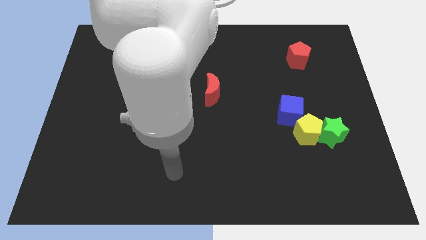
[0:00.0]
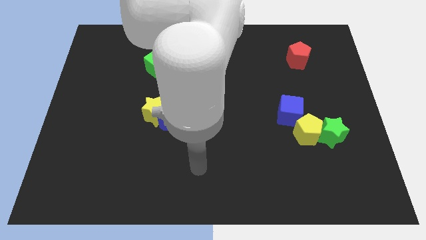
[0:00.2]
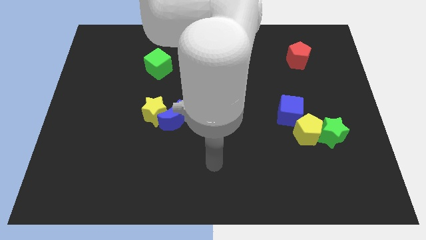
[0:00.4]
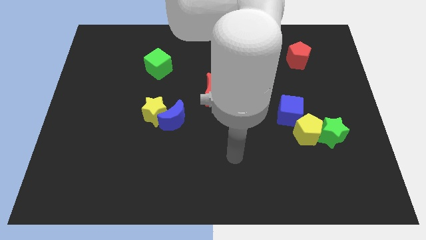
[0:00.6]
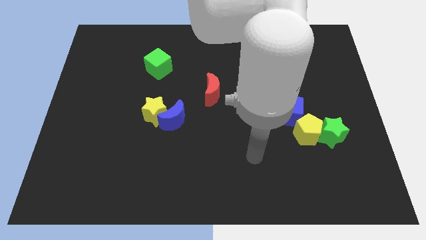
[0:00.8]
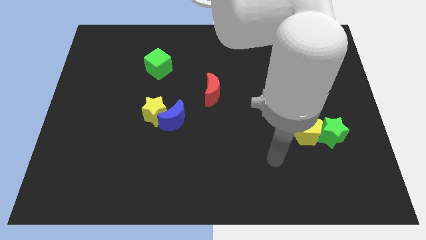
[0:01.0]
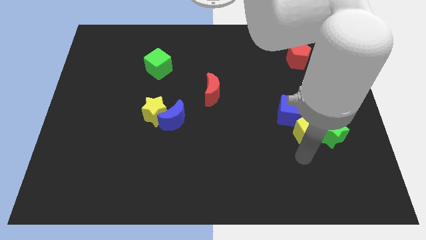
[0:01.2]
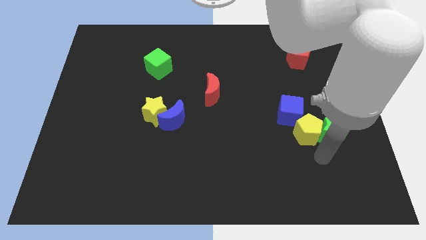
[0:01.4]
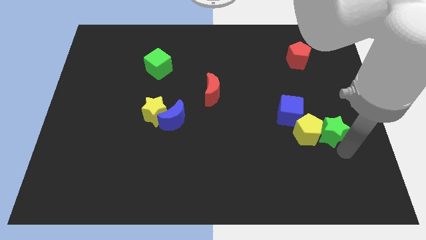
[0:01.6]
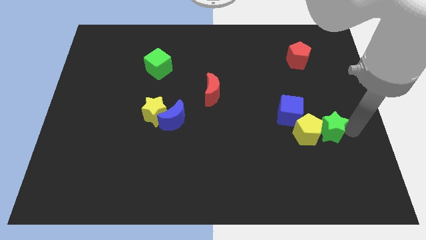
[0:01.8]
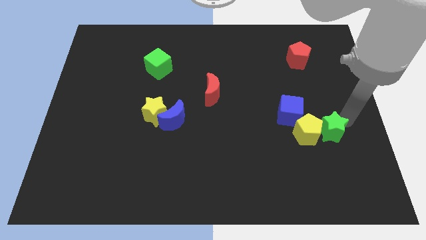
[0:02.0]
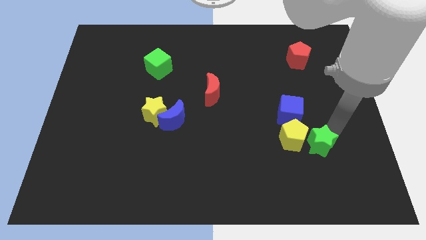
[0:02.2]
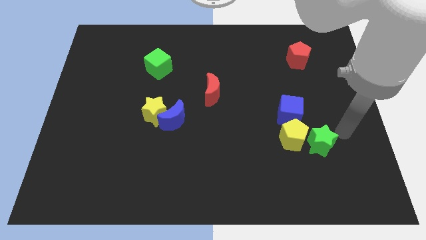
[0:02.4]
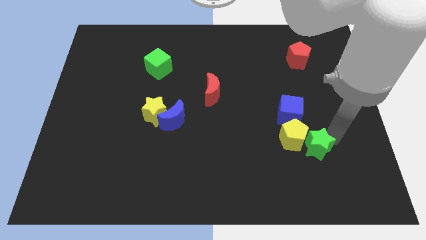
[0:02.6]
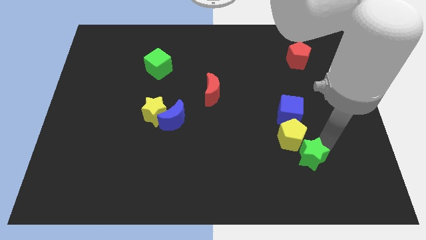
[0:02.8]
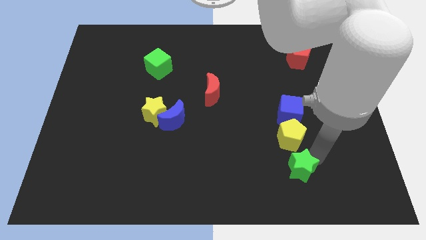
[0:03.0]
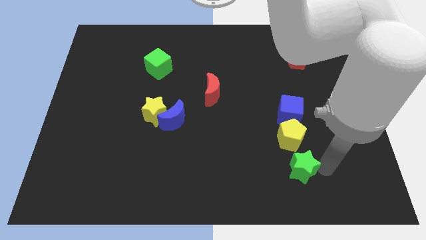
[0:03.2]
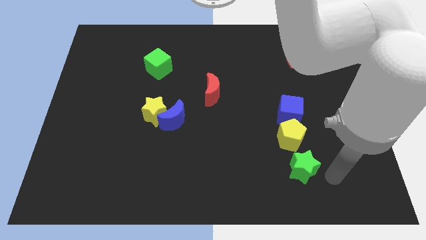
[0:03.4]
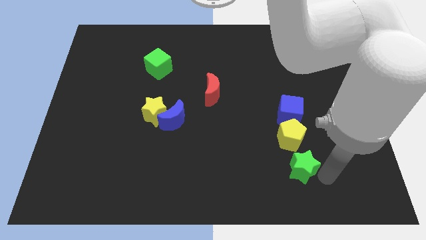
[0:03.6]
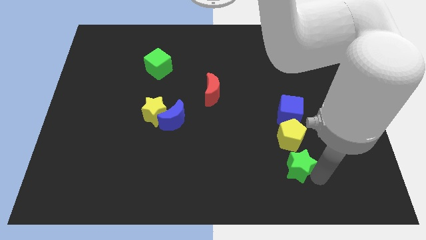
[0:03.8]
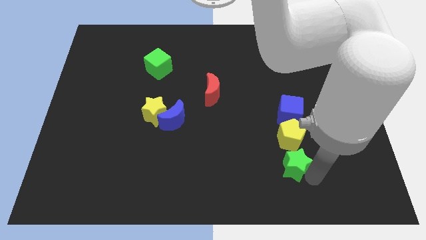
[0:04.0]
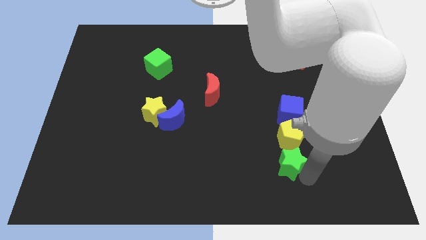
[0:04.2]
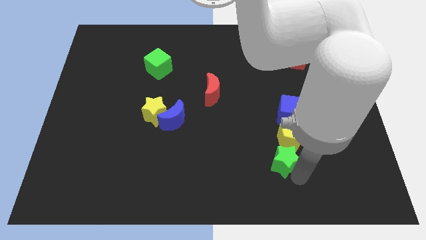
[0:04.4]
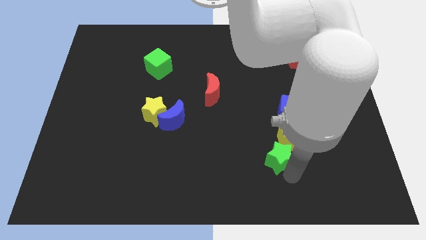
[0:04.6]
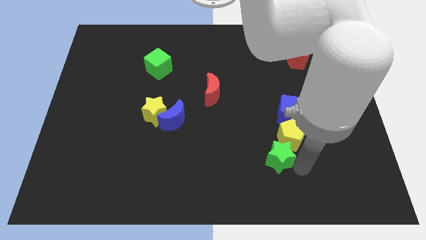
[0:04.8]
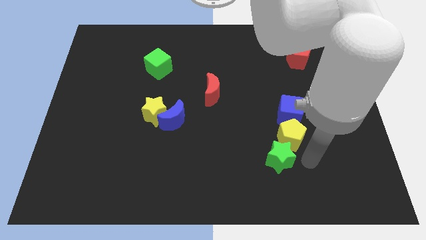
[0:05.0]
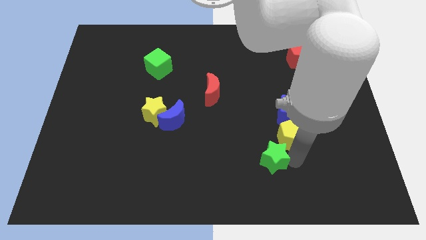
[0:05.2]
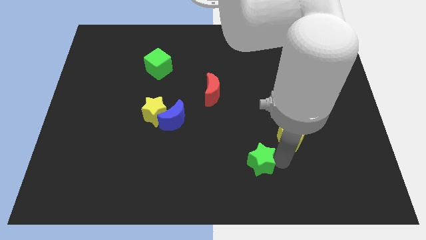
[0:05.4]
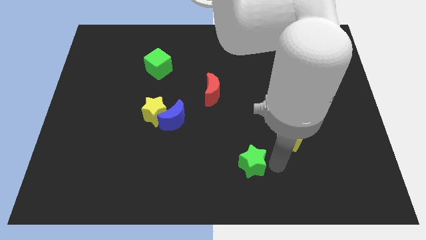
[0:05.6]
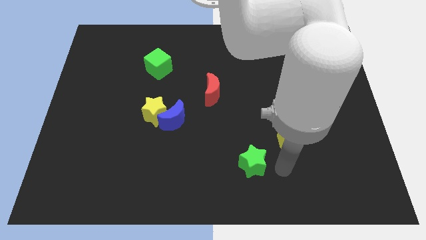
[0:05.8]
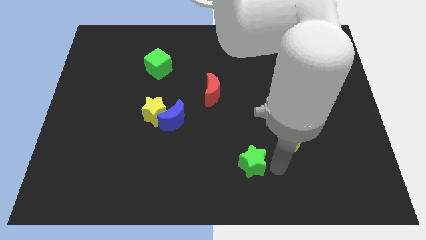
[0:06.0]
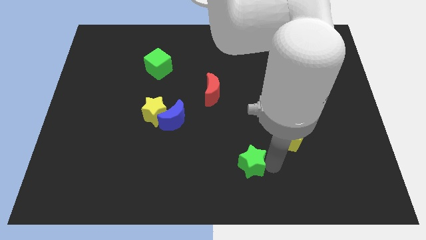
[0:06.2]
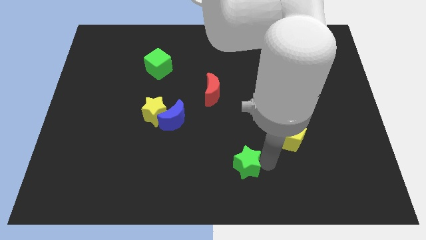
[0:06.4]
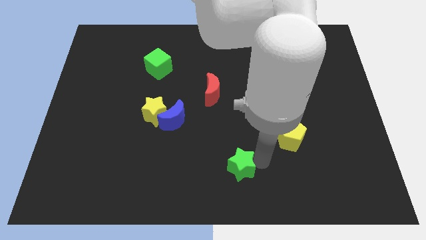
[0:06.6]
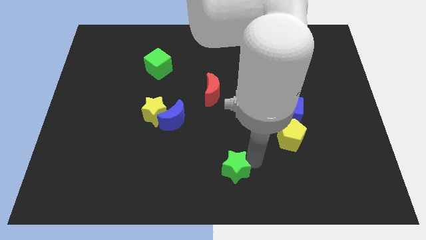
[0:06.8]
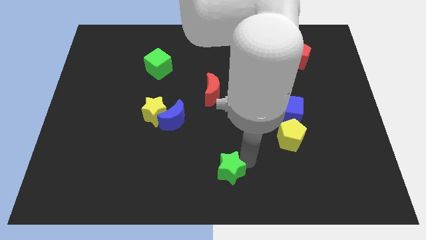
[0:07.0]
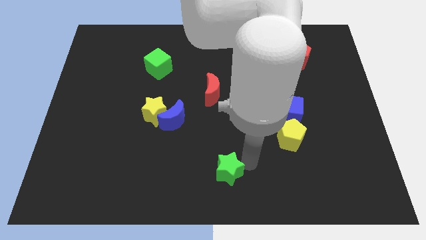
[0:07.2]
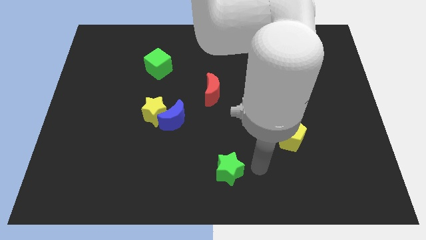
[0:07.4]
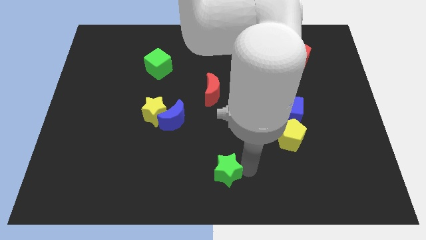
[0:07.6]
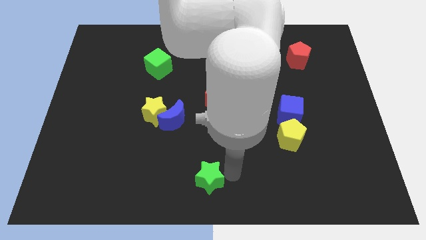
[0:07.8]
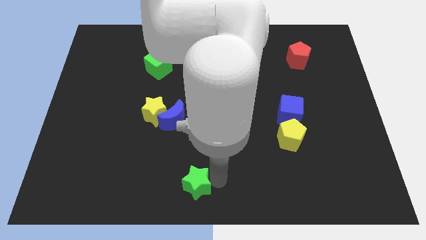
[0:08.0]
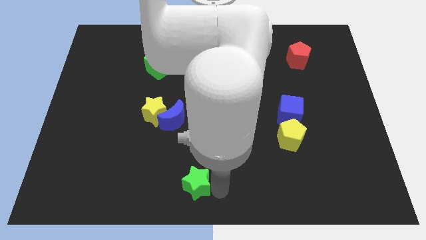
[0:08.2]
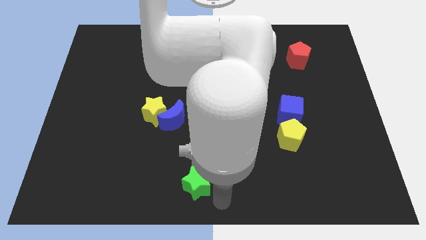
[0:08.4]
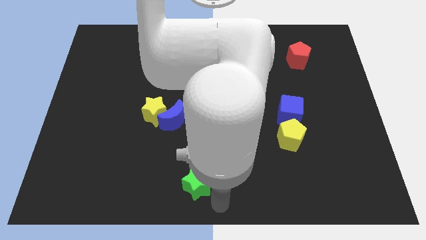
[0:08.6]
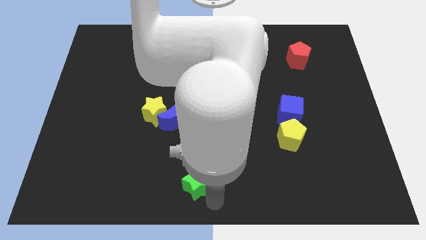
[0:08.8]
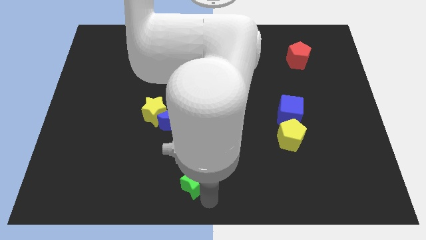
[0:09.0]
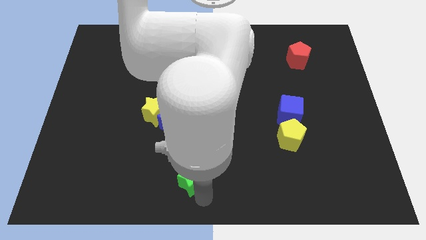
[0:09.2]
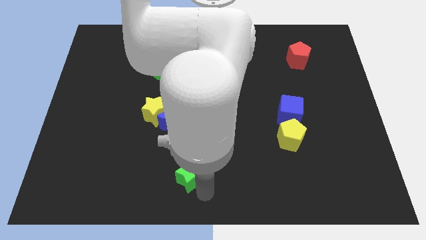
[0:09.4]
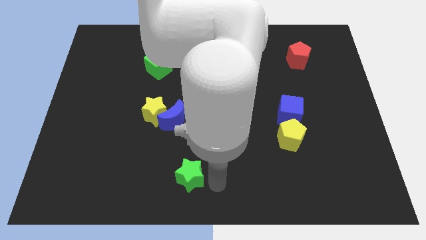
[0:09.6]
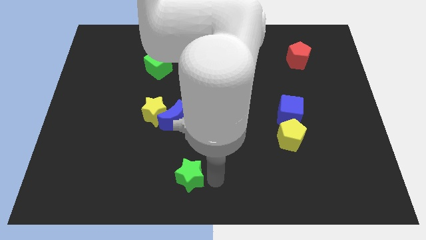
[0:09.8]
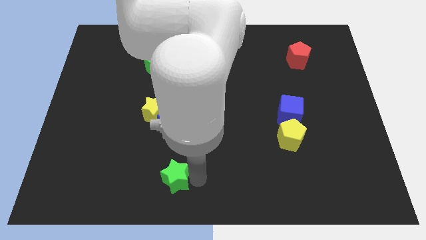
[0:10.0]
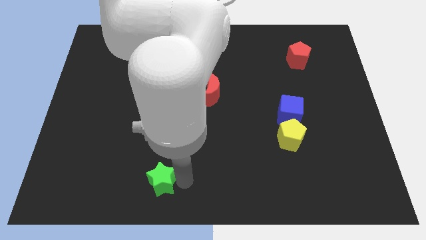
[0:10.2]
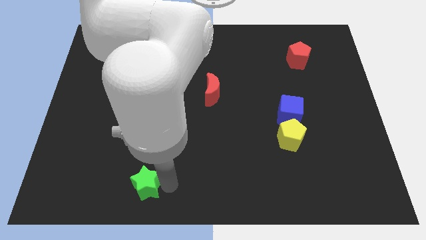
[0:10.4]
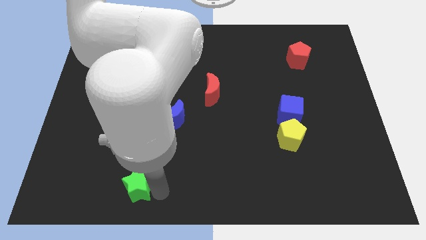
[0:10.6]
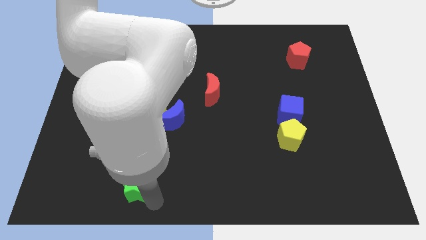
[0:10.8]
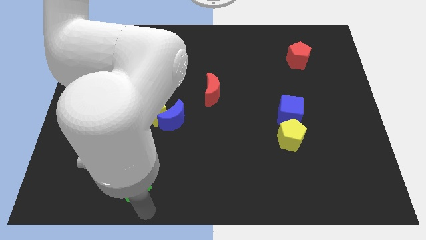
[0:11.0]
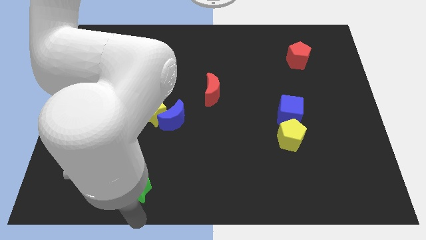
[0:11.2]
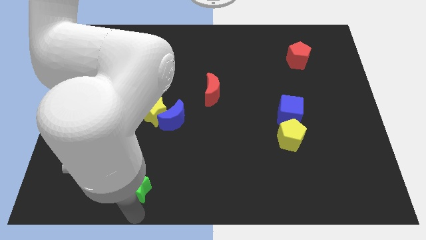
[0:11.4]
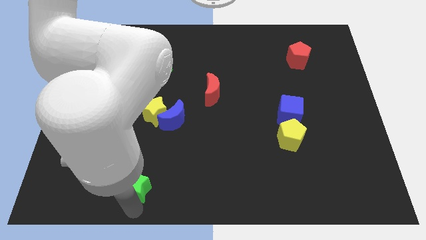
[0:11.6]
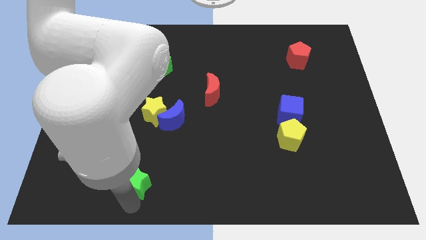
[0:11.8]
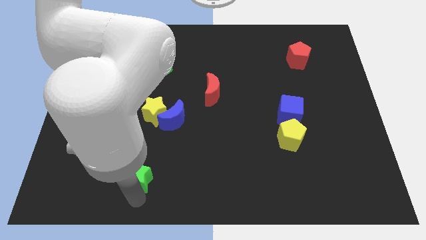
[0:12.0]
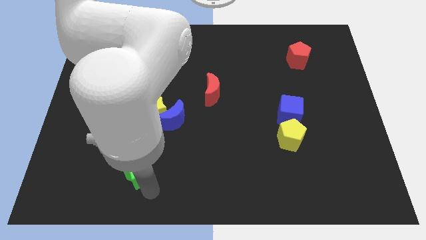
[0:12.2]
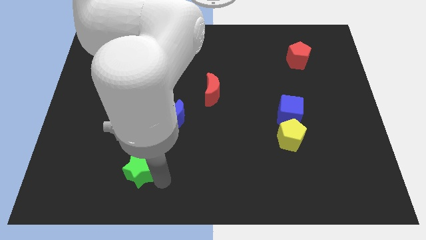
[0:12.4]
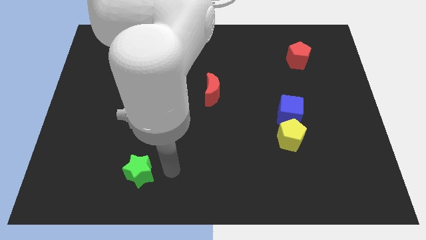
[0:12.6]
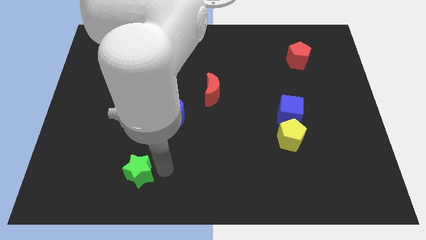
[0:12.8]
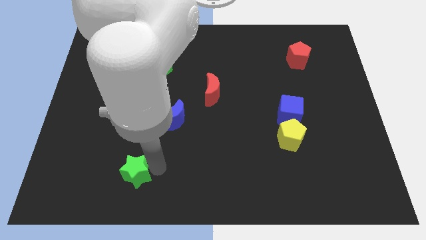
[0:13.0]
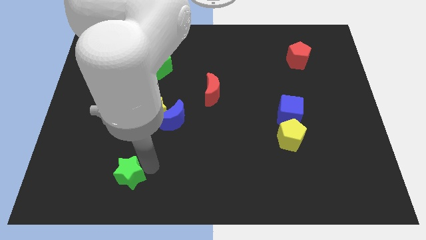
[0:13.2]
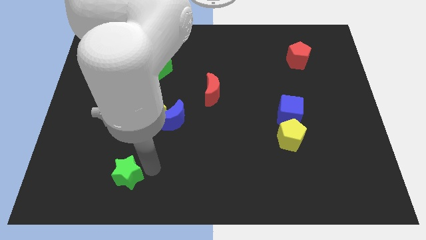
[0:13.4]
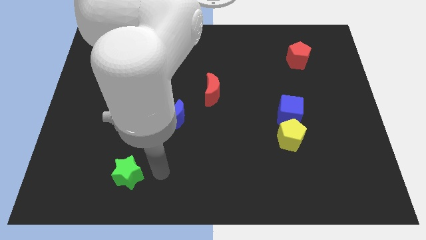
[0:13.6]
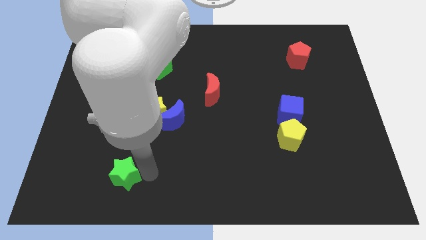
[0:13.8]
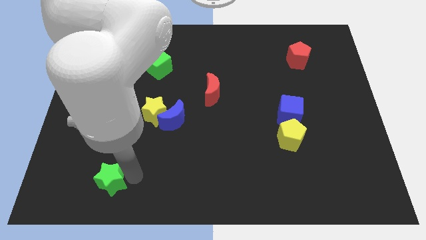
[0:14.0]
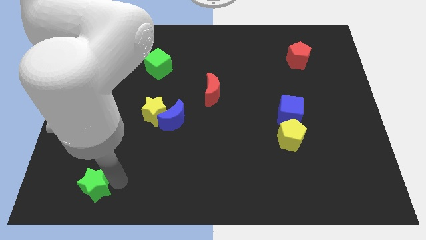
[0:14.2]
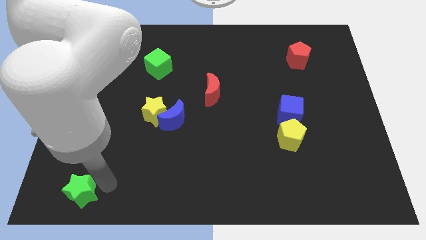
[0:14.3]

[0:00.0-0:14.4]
put the green star to the bottom left
